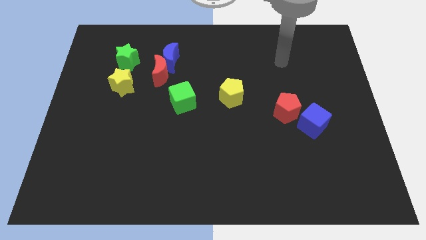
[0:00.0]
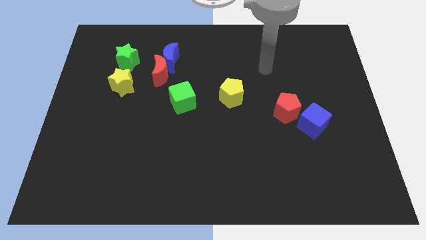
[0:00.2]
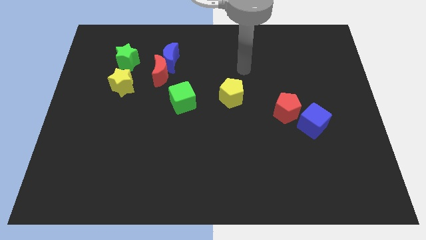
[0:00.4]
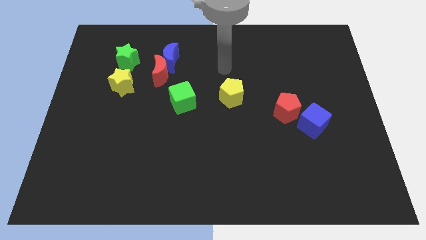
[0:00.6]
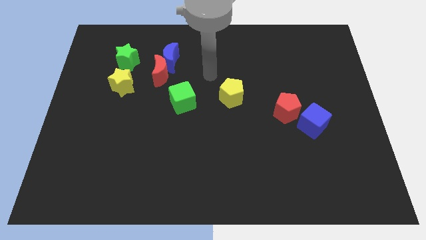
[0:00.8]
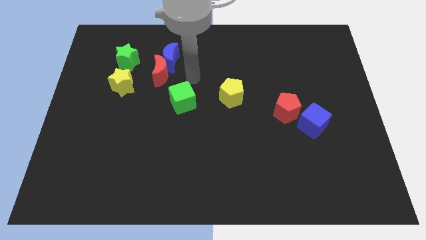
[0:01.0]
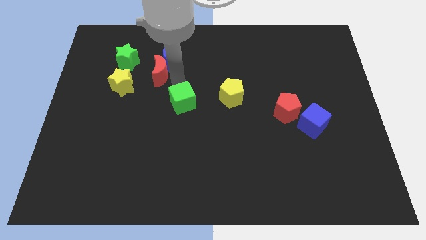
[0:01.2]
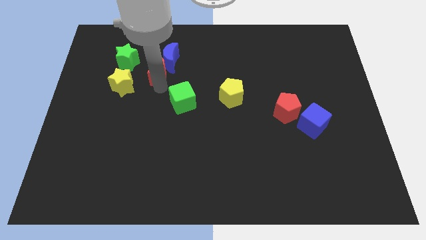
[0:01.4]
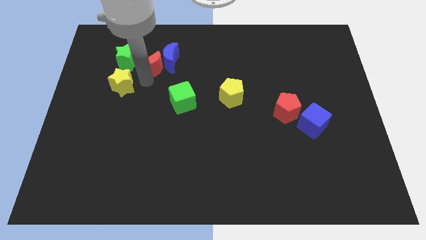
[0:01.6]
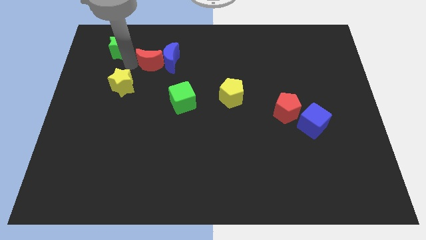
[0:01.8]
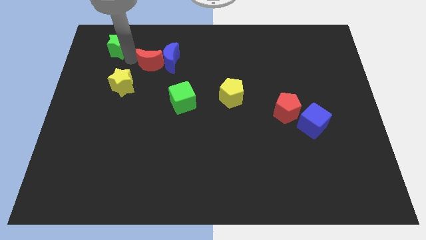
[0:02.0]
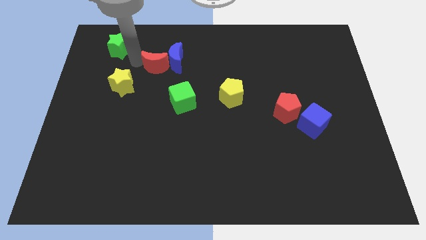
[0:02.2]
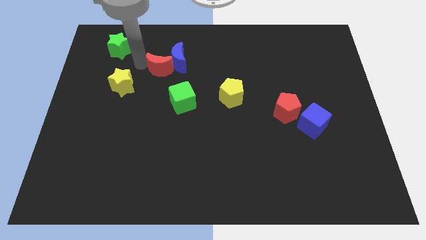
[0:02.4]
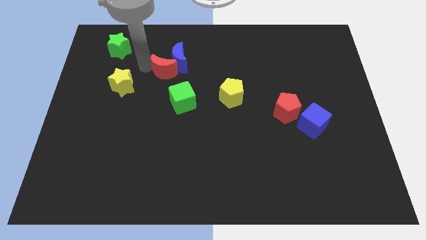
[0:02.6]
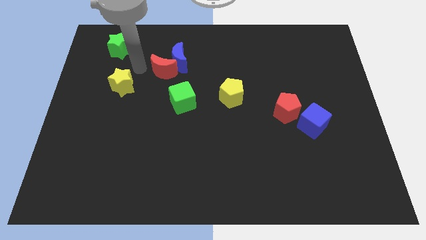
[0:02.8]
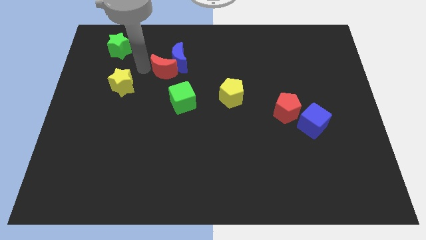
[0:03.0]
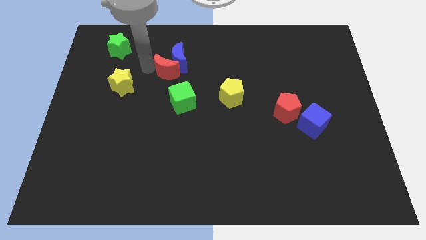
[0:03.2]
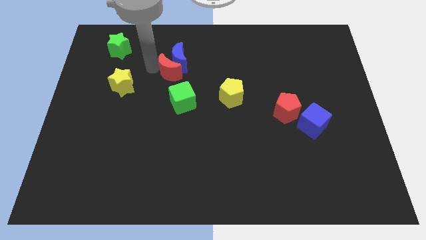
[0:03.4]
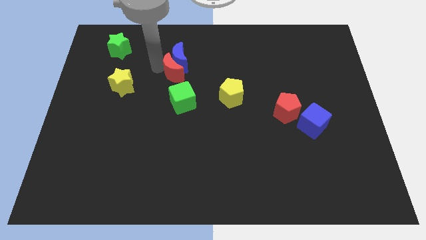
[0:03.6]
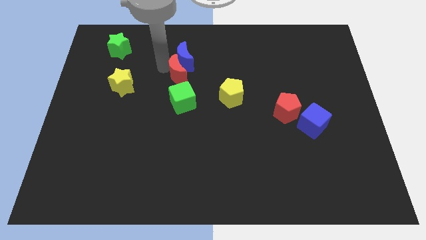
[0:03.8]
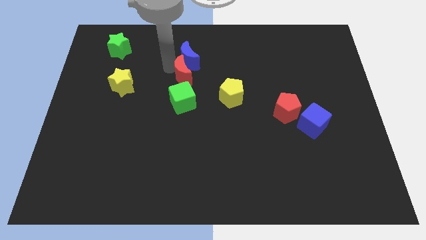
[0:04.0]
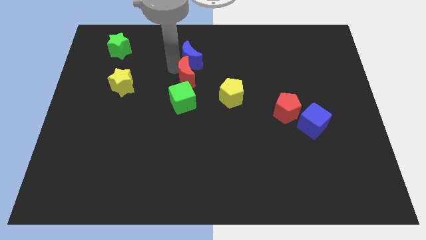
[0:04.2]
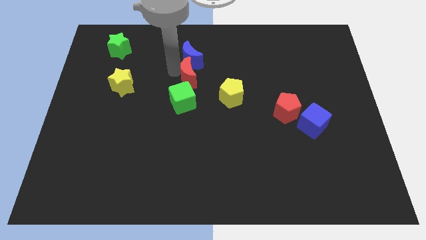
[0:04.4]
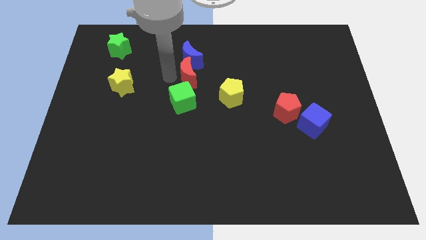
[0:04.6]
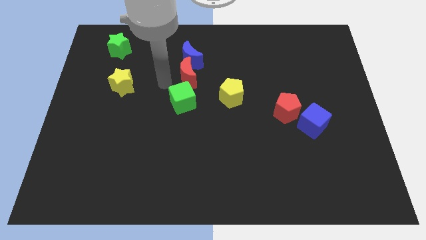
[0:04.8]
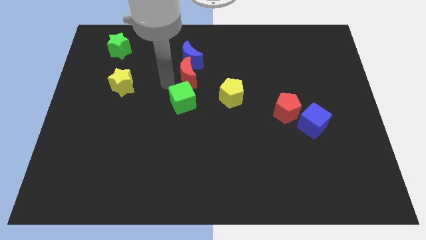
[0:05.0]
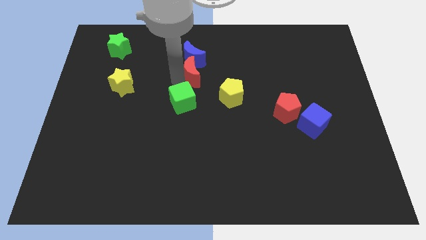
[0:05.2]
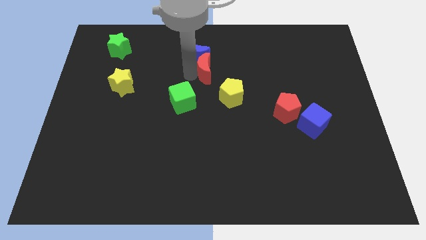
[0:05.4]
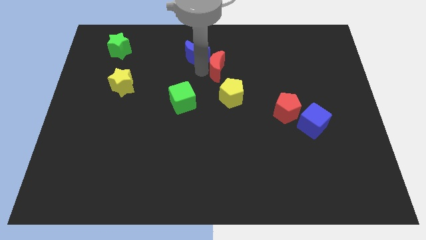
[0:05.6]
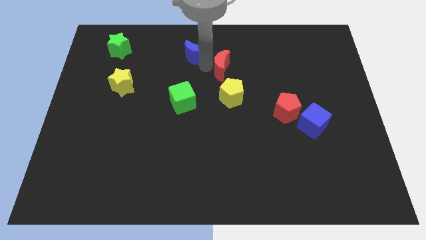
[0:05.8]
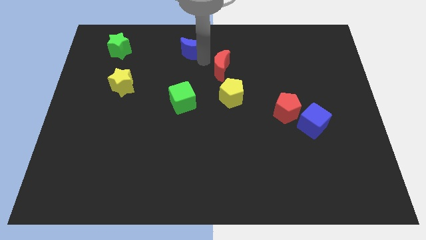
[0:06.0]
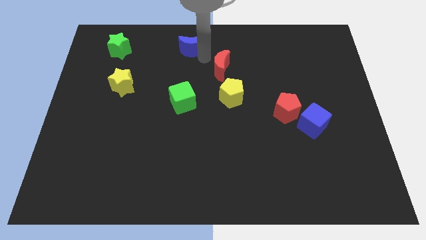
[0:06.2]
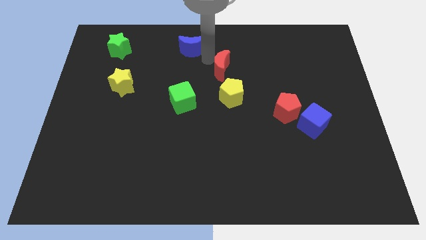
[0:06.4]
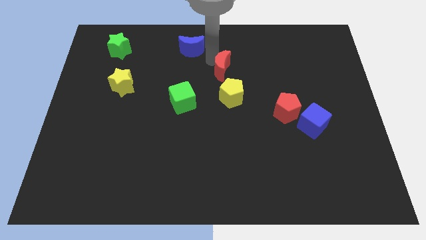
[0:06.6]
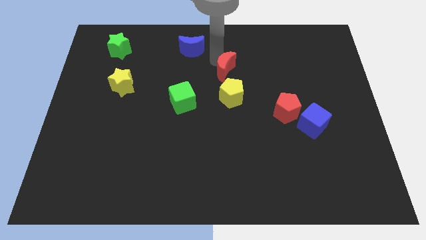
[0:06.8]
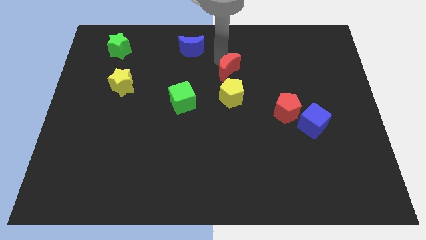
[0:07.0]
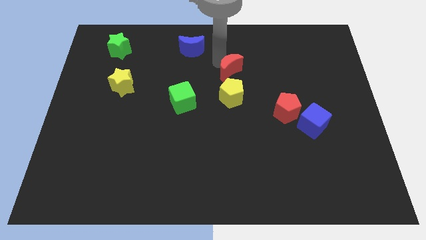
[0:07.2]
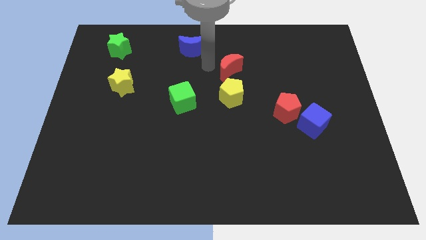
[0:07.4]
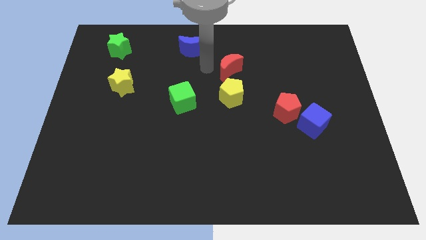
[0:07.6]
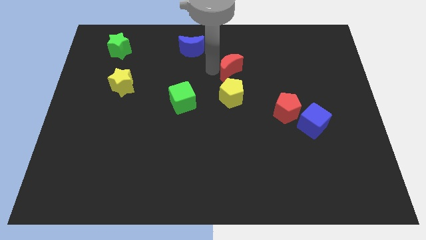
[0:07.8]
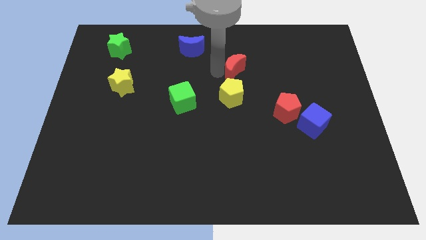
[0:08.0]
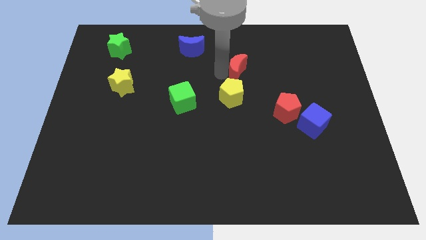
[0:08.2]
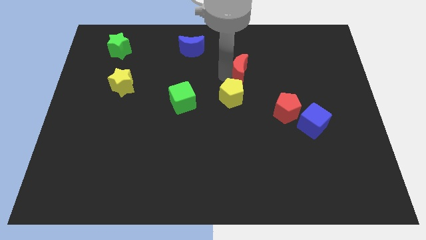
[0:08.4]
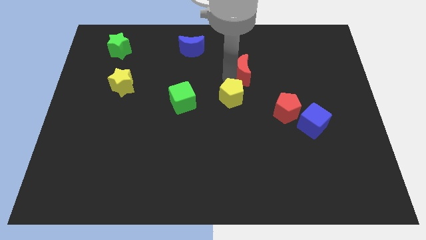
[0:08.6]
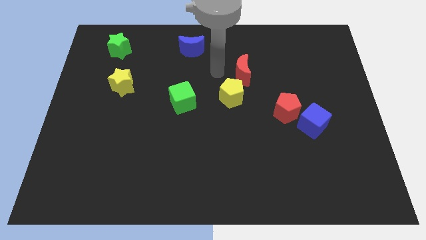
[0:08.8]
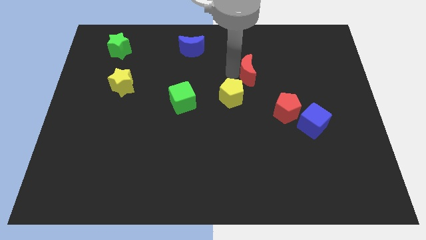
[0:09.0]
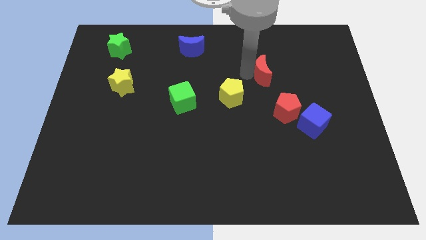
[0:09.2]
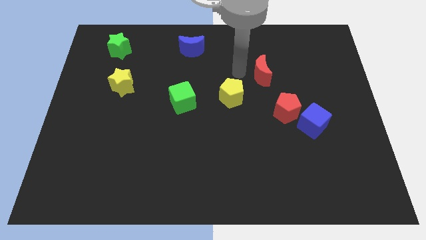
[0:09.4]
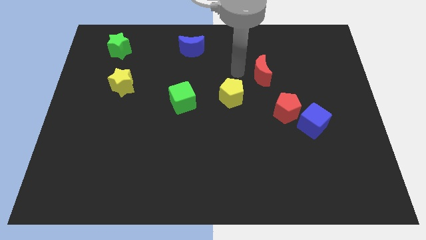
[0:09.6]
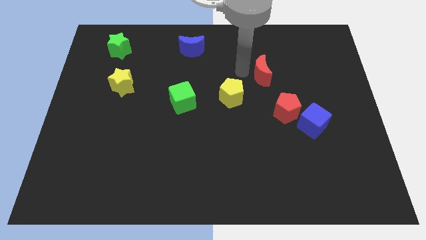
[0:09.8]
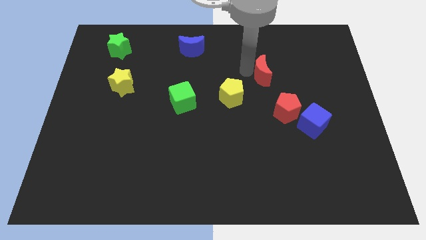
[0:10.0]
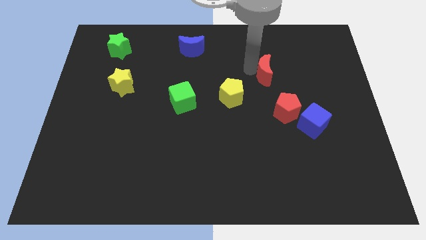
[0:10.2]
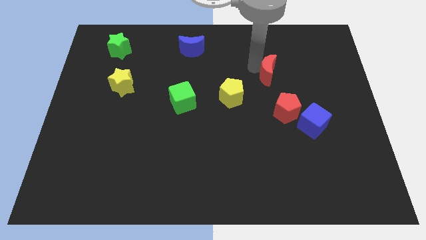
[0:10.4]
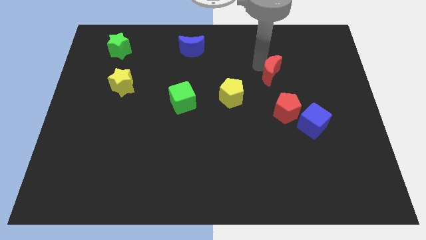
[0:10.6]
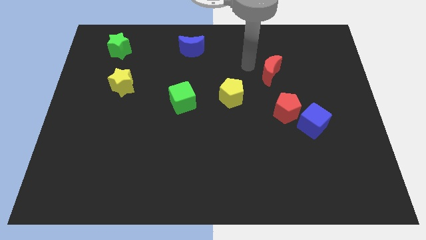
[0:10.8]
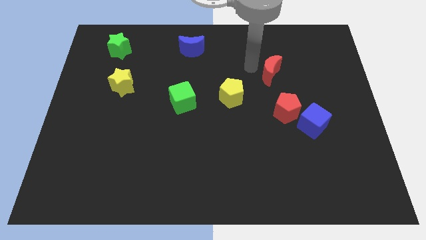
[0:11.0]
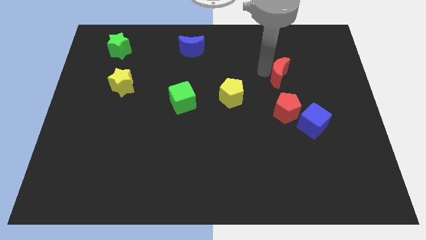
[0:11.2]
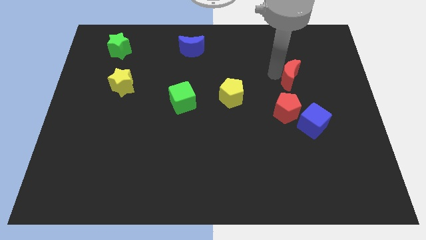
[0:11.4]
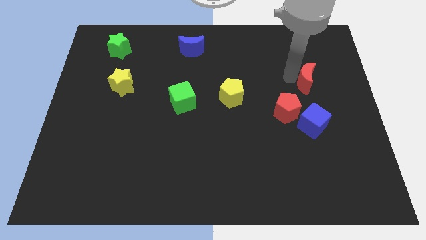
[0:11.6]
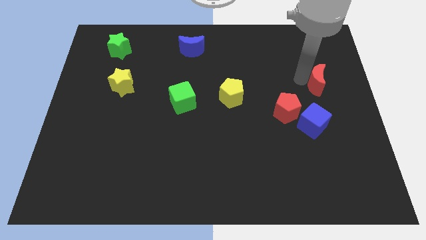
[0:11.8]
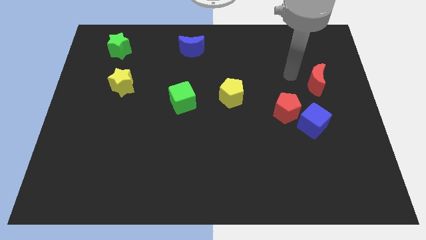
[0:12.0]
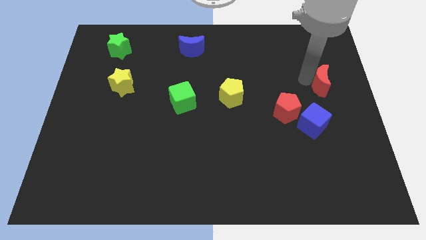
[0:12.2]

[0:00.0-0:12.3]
push the red moon to the right side

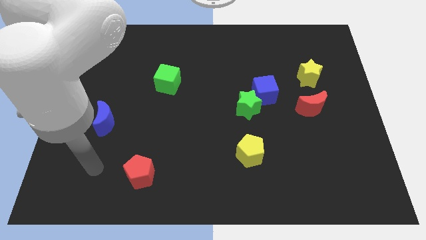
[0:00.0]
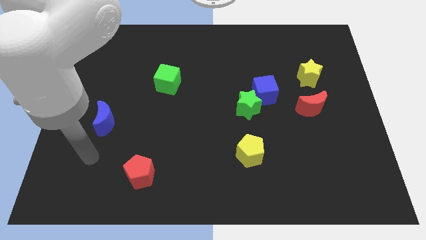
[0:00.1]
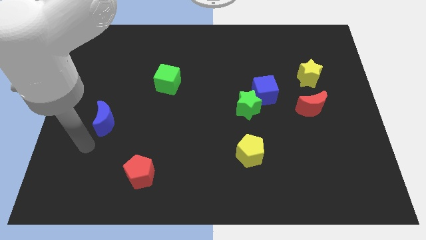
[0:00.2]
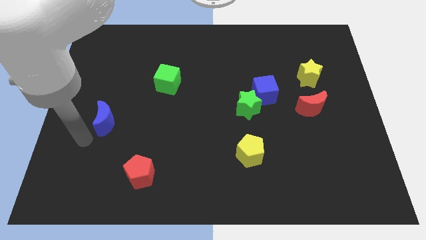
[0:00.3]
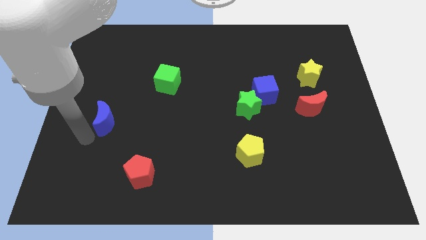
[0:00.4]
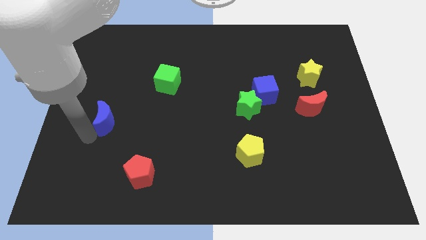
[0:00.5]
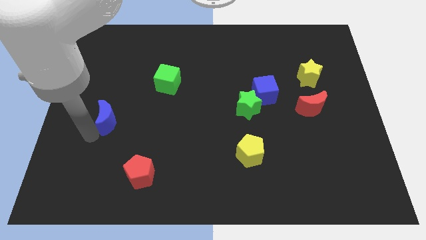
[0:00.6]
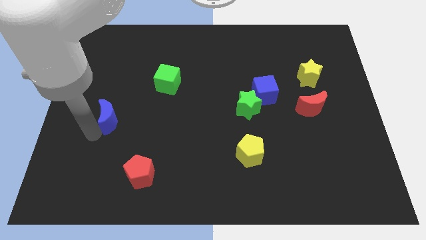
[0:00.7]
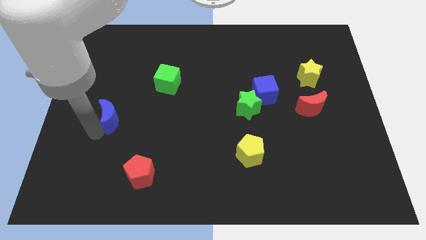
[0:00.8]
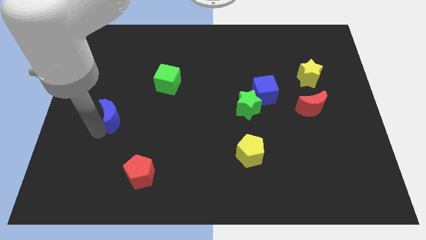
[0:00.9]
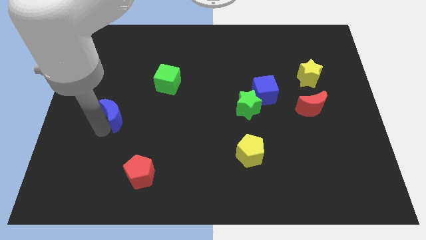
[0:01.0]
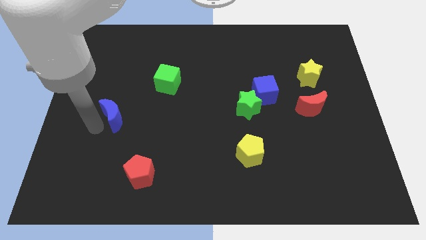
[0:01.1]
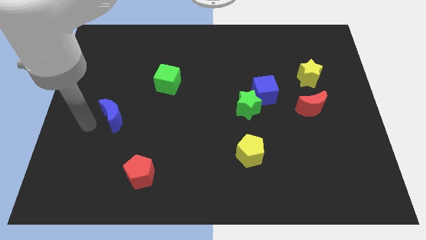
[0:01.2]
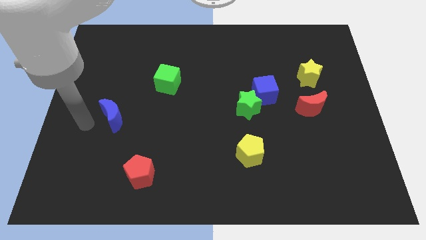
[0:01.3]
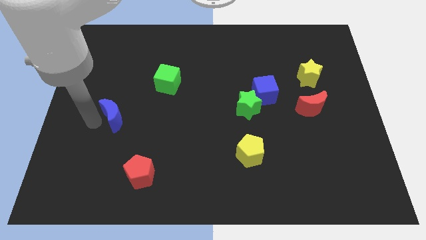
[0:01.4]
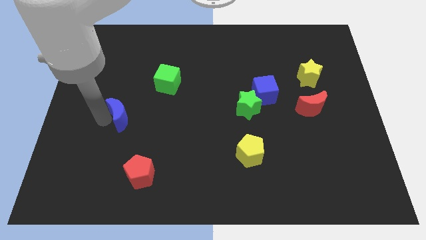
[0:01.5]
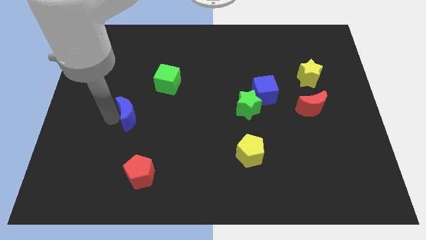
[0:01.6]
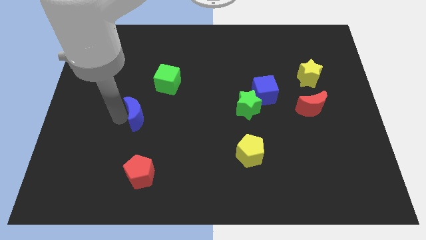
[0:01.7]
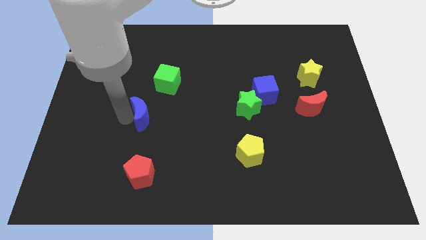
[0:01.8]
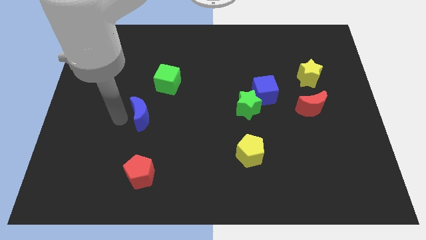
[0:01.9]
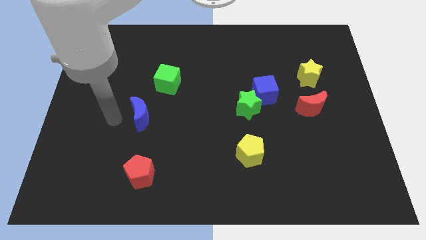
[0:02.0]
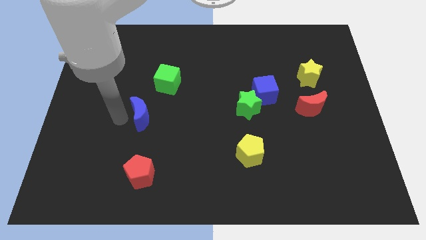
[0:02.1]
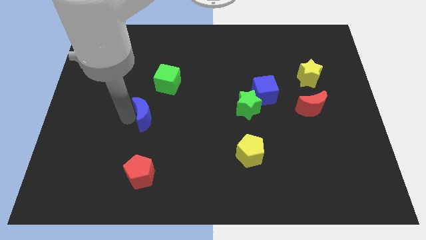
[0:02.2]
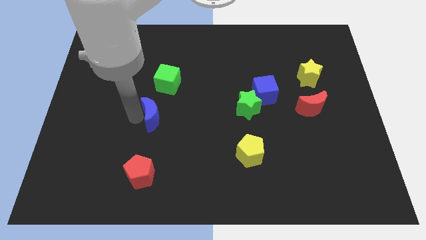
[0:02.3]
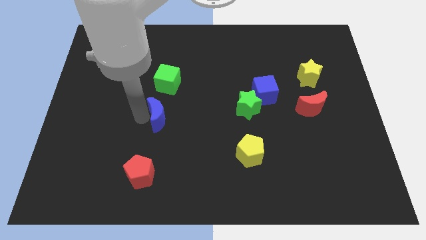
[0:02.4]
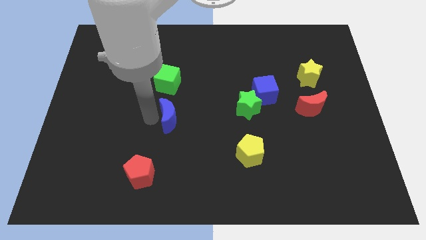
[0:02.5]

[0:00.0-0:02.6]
move the blue moon to the middle of the board
